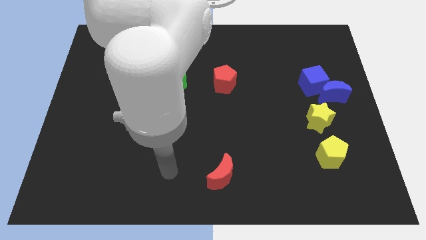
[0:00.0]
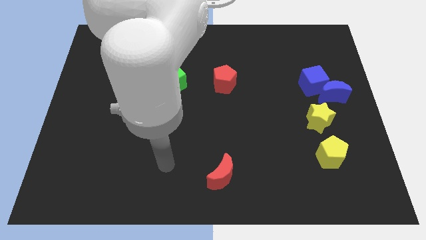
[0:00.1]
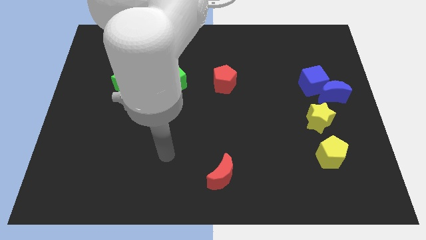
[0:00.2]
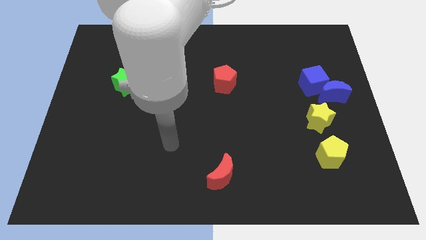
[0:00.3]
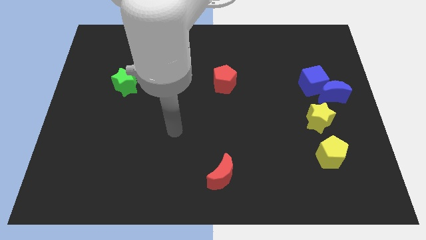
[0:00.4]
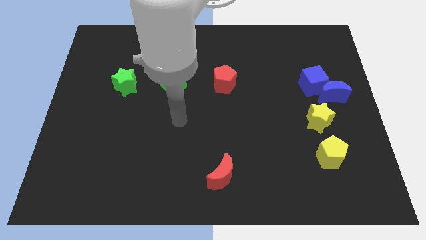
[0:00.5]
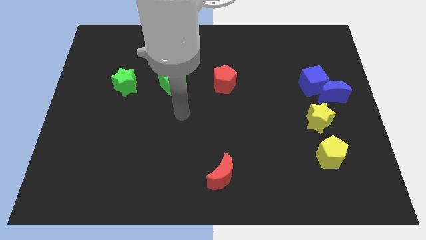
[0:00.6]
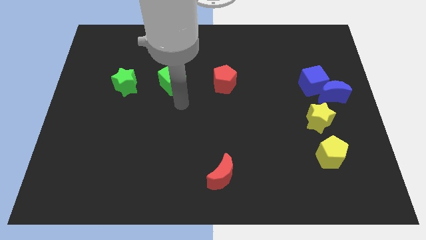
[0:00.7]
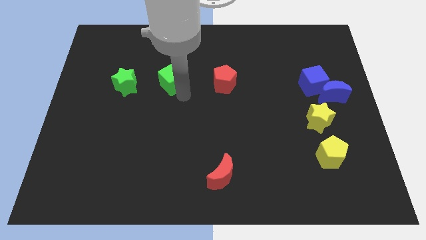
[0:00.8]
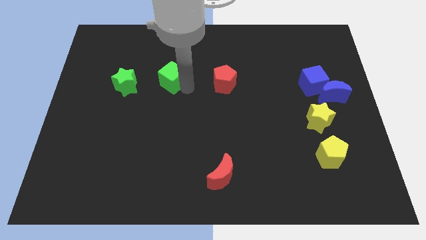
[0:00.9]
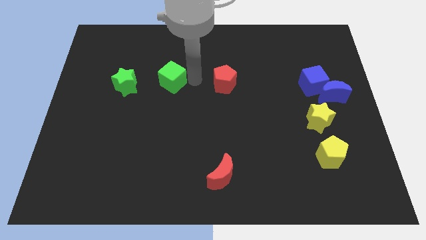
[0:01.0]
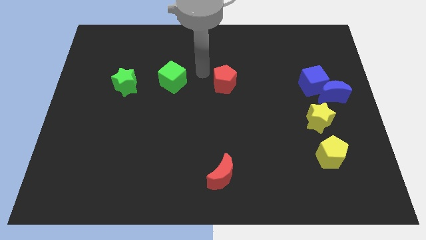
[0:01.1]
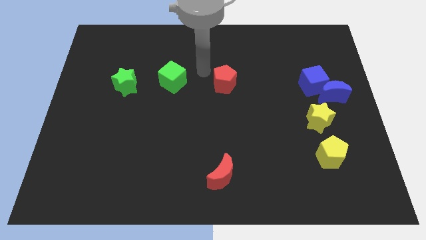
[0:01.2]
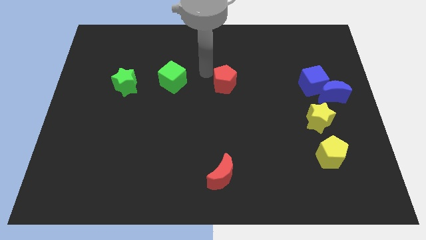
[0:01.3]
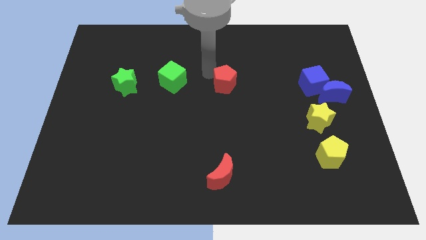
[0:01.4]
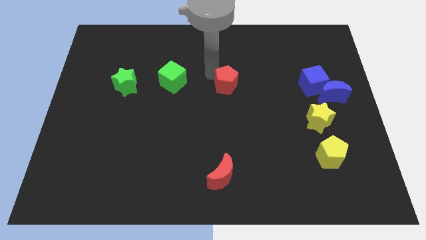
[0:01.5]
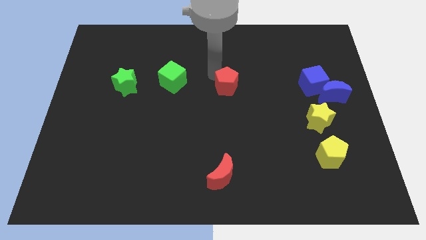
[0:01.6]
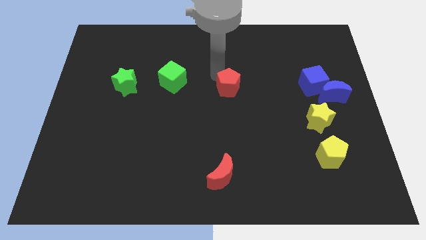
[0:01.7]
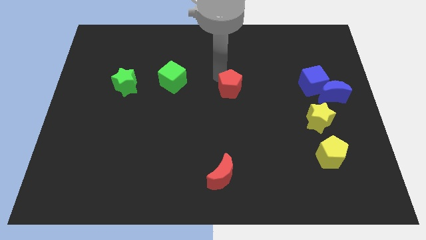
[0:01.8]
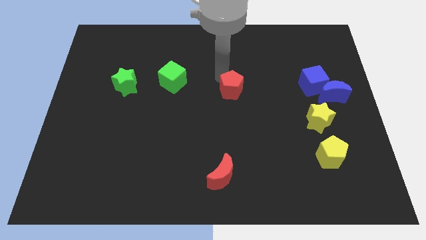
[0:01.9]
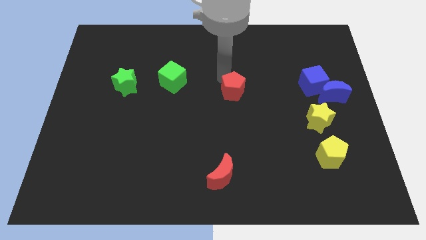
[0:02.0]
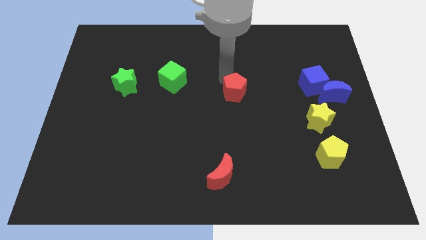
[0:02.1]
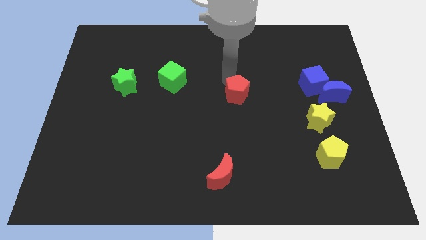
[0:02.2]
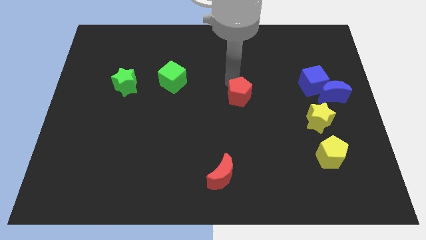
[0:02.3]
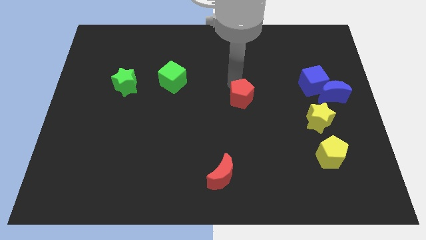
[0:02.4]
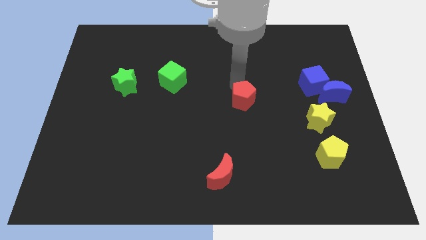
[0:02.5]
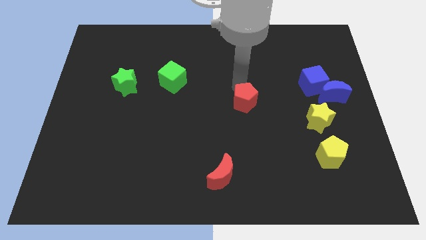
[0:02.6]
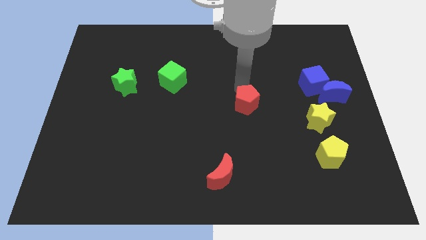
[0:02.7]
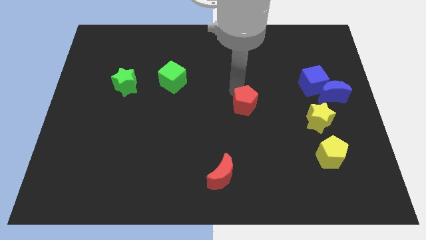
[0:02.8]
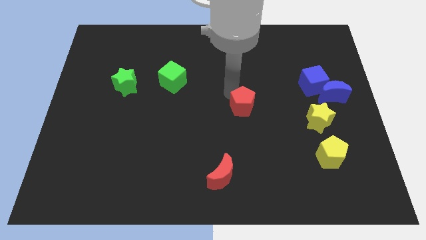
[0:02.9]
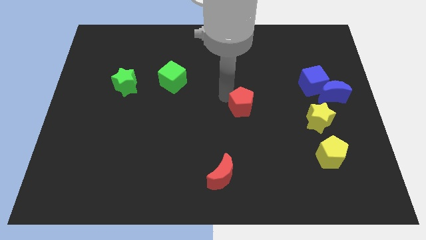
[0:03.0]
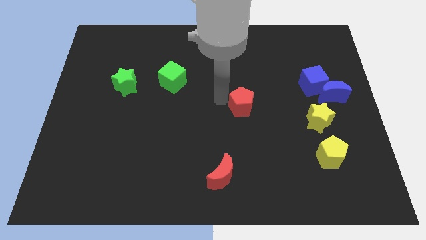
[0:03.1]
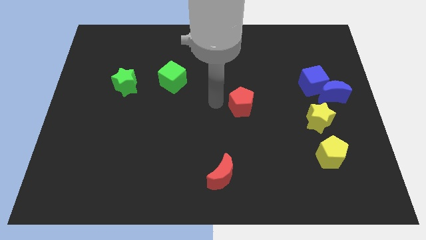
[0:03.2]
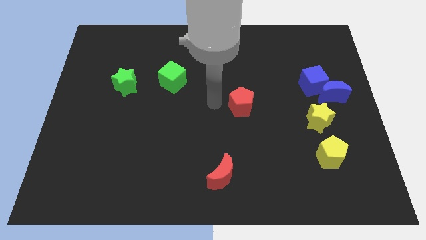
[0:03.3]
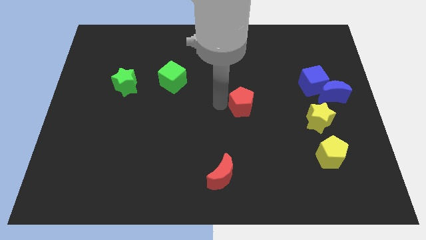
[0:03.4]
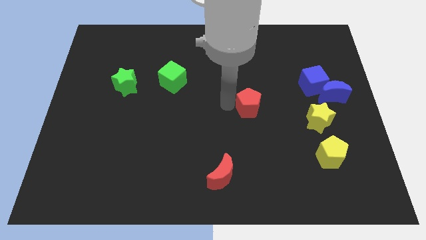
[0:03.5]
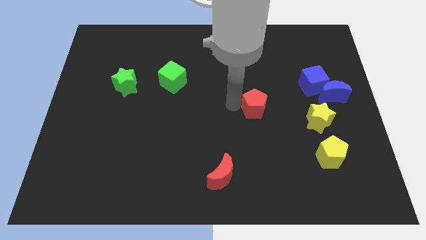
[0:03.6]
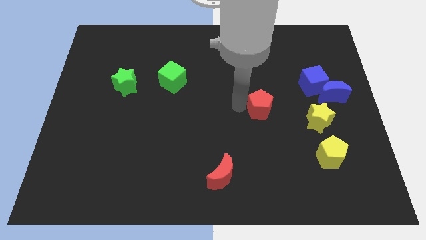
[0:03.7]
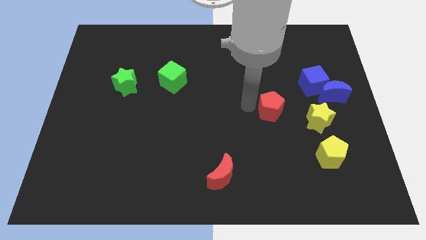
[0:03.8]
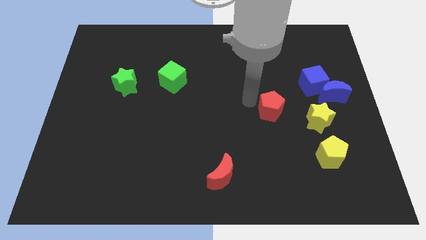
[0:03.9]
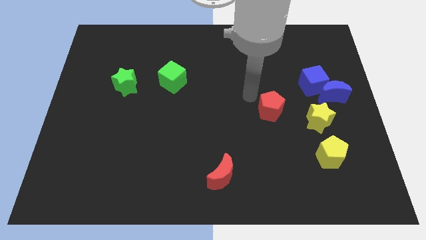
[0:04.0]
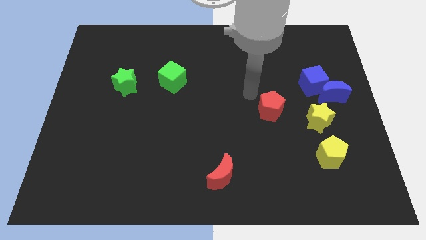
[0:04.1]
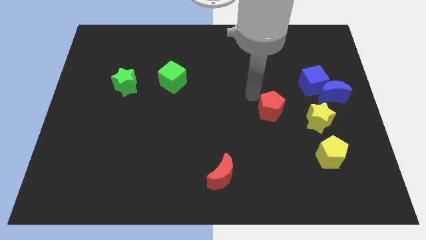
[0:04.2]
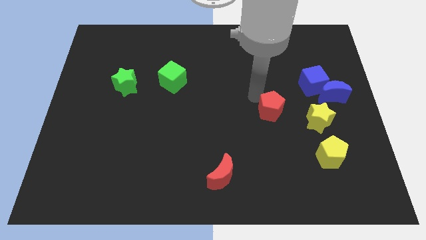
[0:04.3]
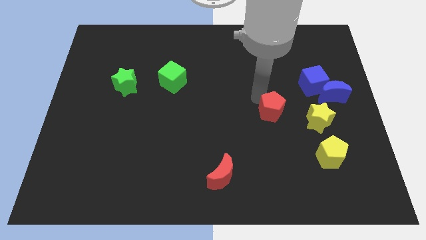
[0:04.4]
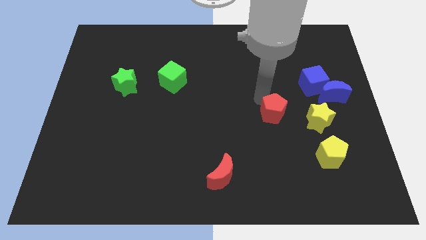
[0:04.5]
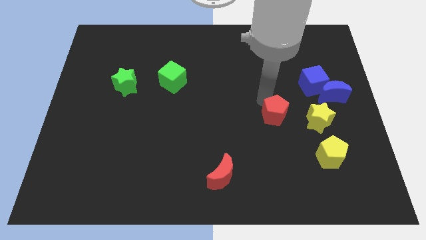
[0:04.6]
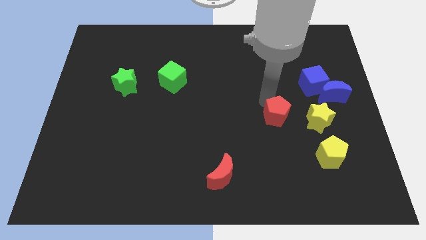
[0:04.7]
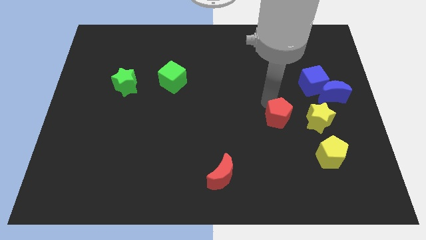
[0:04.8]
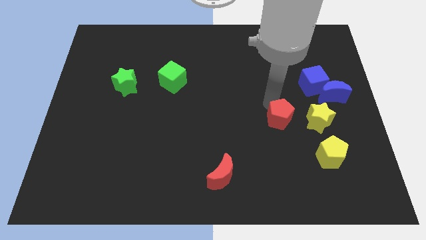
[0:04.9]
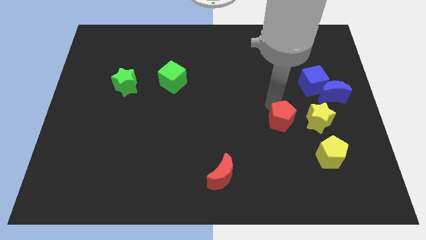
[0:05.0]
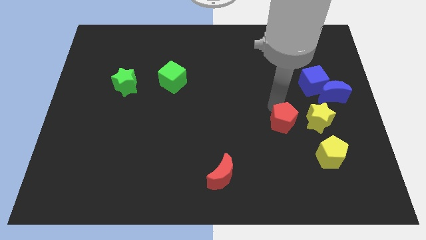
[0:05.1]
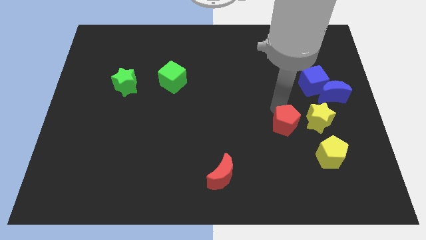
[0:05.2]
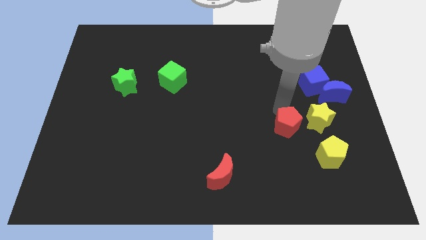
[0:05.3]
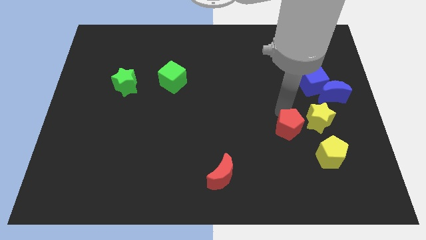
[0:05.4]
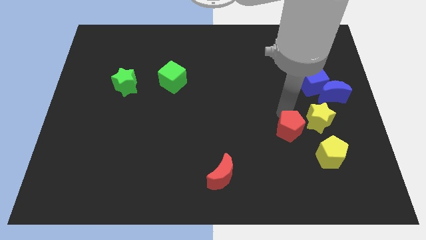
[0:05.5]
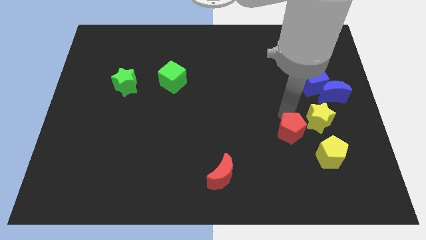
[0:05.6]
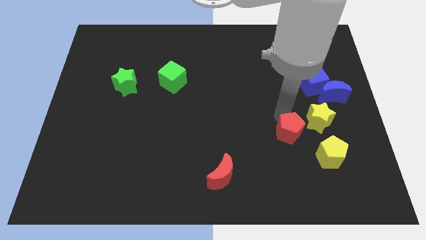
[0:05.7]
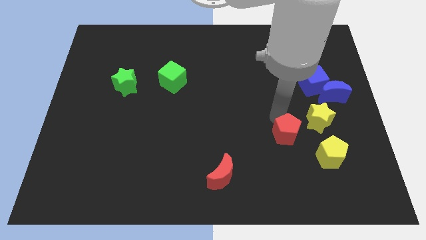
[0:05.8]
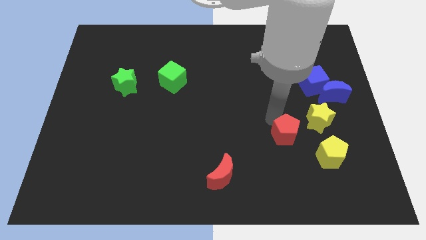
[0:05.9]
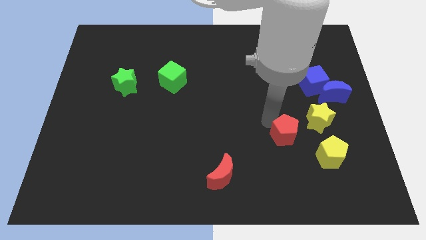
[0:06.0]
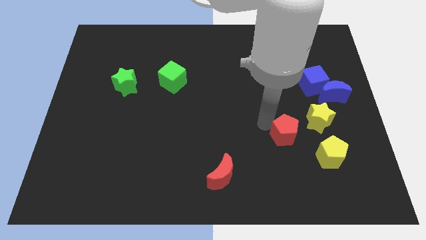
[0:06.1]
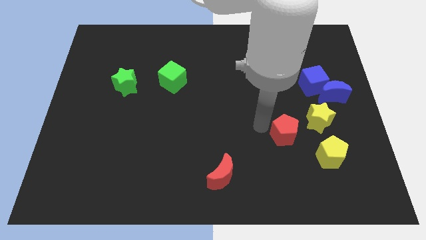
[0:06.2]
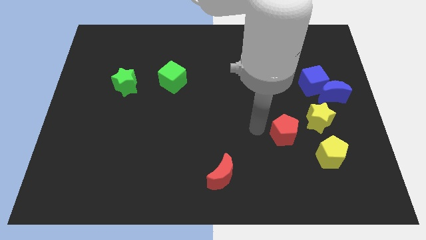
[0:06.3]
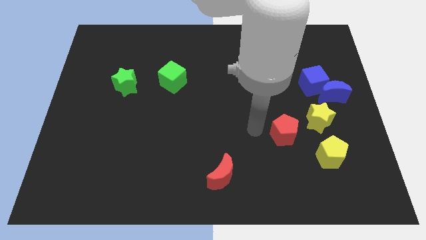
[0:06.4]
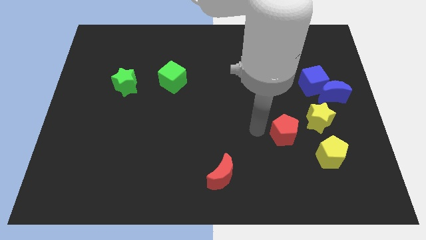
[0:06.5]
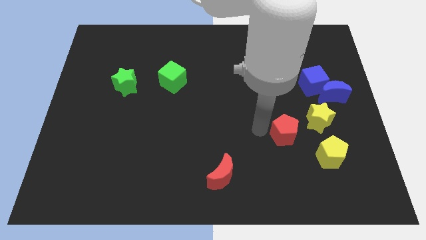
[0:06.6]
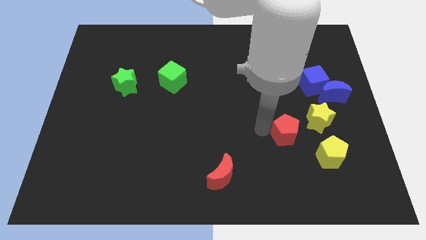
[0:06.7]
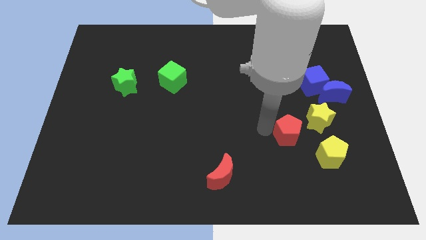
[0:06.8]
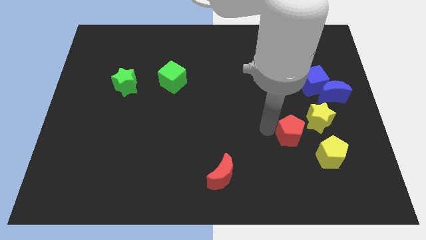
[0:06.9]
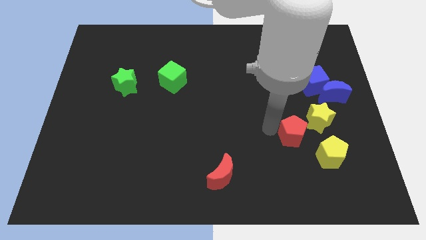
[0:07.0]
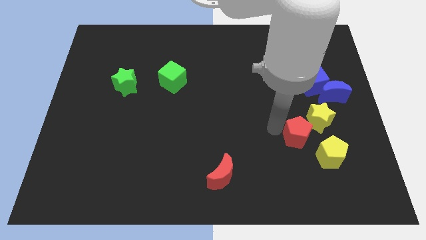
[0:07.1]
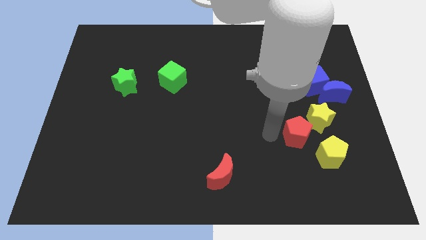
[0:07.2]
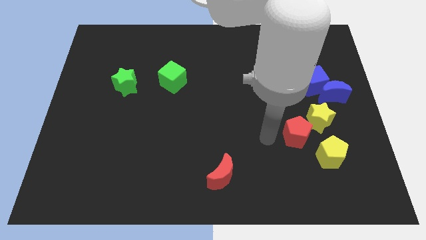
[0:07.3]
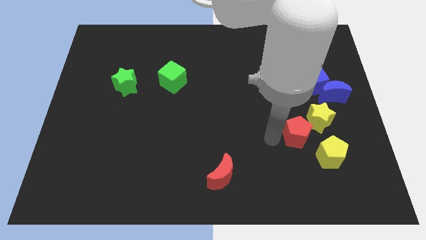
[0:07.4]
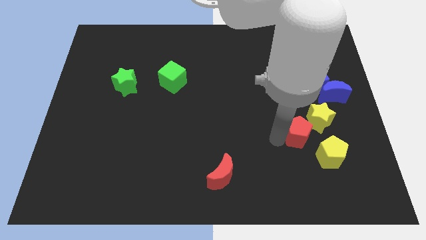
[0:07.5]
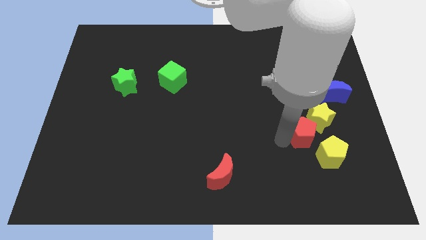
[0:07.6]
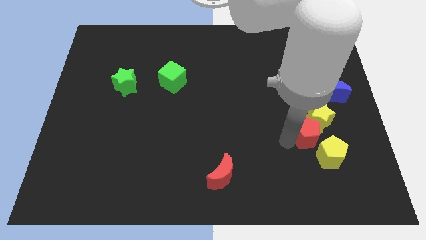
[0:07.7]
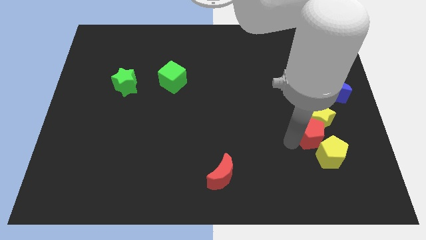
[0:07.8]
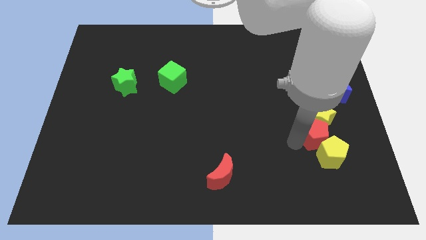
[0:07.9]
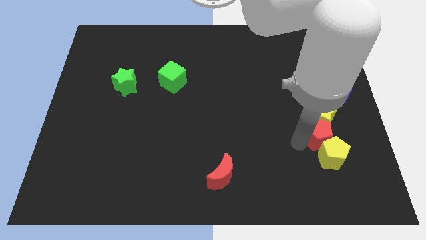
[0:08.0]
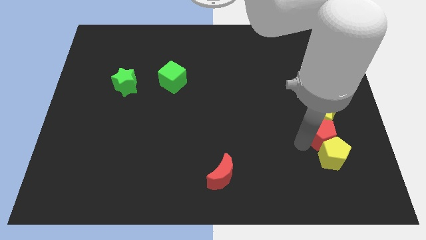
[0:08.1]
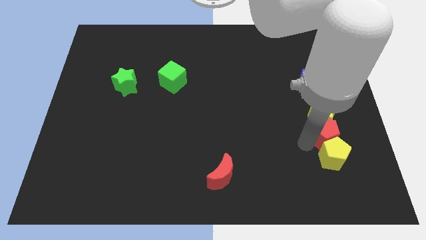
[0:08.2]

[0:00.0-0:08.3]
put the red pentagon below the blue moon
